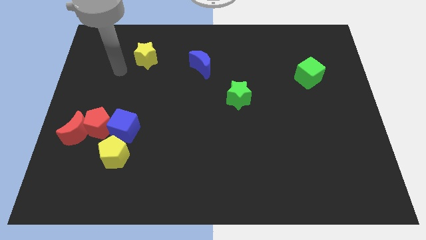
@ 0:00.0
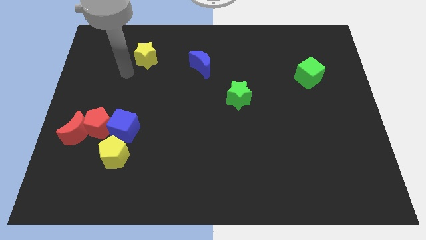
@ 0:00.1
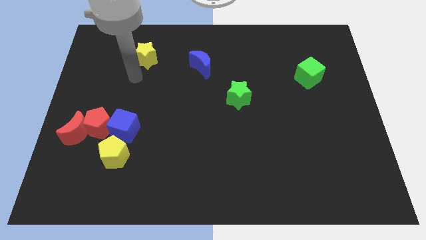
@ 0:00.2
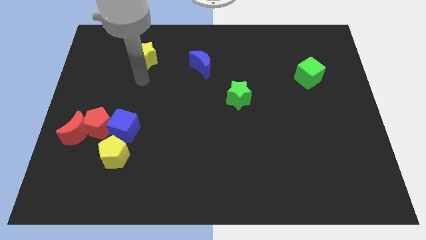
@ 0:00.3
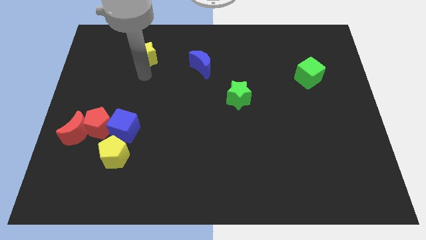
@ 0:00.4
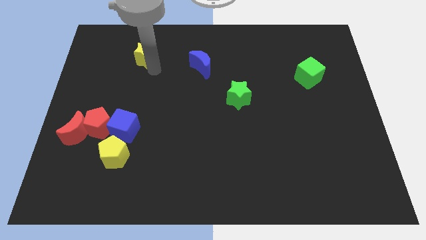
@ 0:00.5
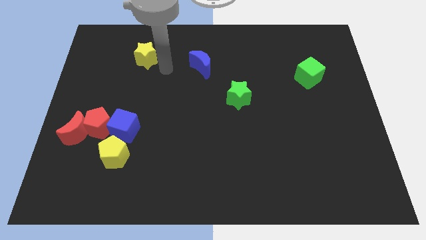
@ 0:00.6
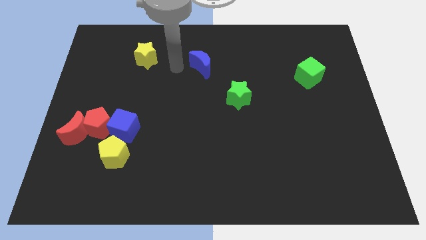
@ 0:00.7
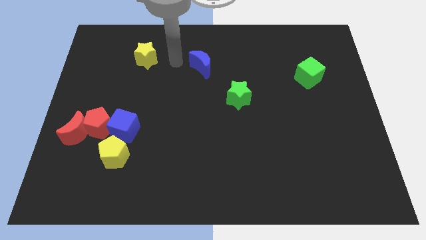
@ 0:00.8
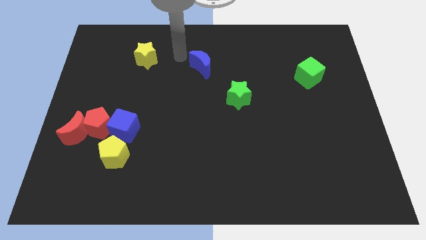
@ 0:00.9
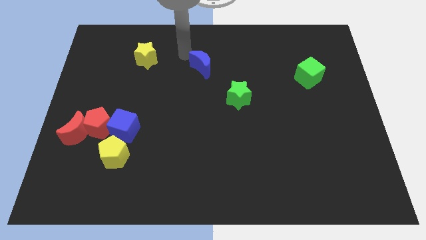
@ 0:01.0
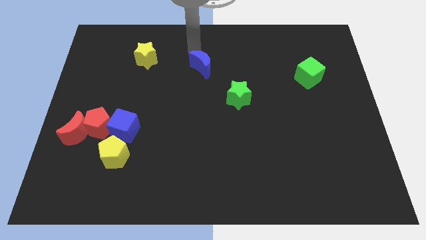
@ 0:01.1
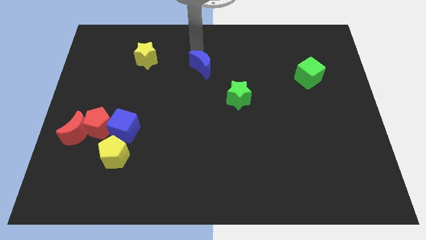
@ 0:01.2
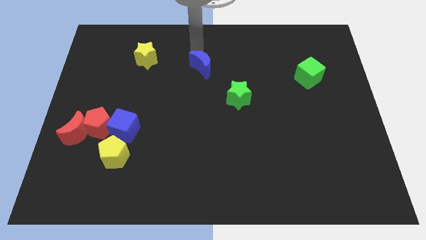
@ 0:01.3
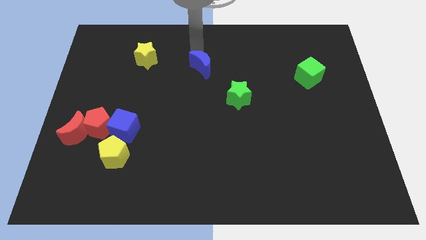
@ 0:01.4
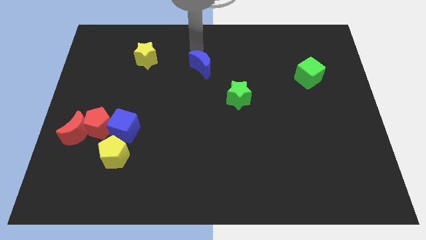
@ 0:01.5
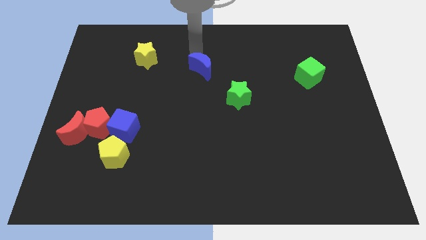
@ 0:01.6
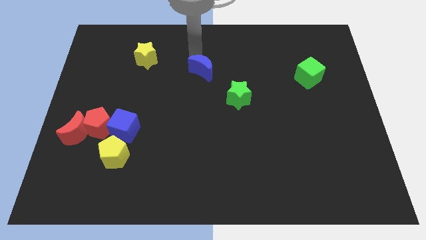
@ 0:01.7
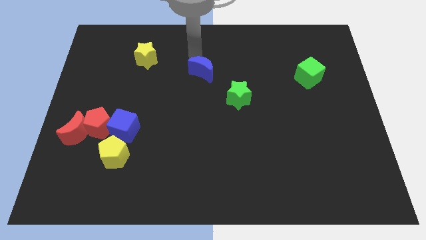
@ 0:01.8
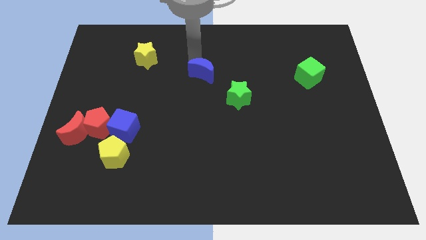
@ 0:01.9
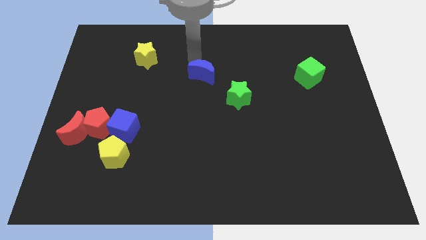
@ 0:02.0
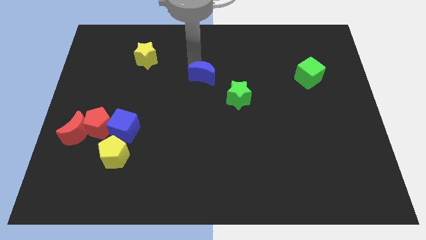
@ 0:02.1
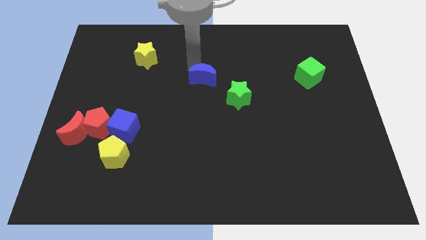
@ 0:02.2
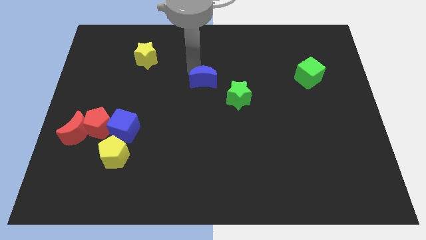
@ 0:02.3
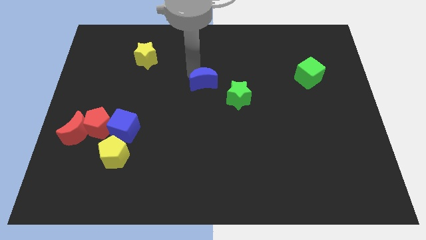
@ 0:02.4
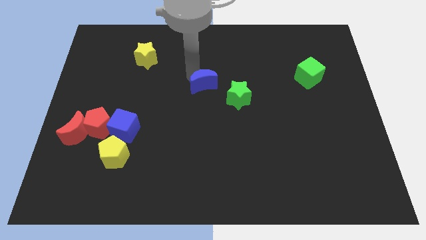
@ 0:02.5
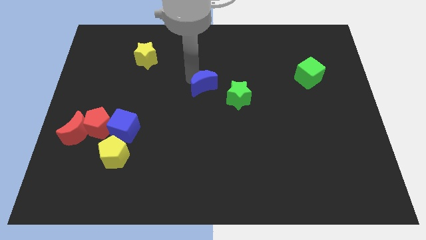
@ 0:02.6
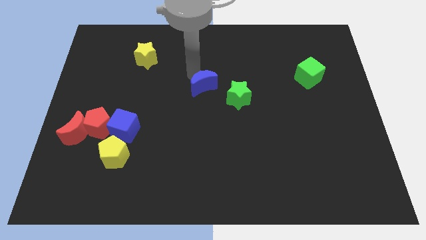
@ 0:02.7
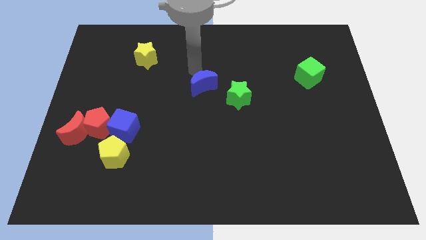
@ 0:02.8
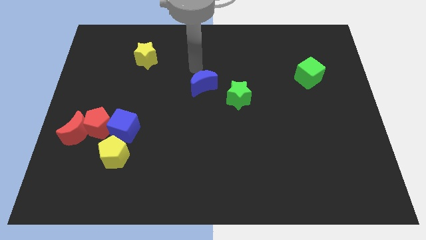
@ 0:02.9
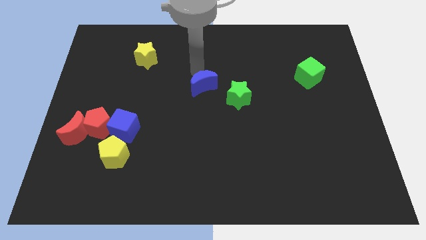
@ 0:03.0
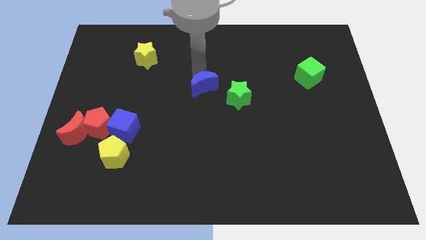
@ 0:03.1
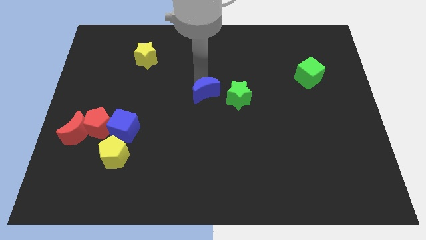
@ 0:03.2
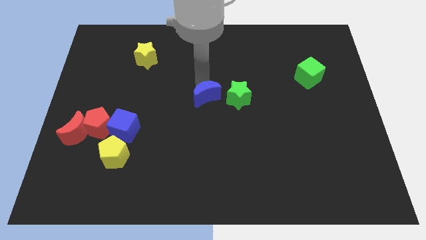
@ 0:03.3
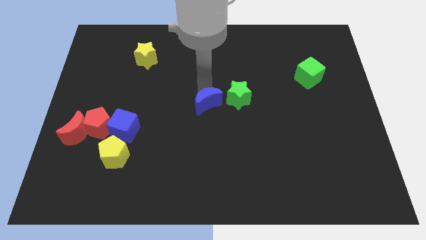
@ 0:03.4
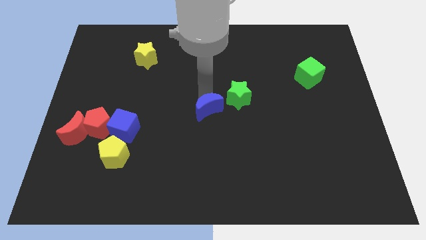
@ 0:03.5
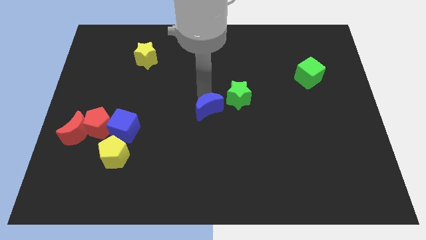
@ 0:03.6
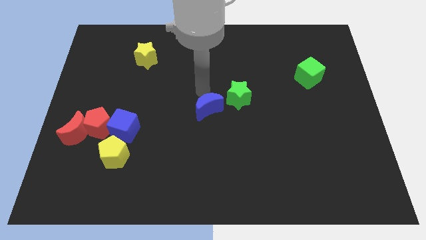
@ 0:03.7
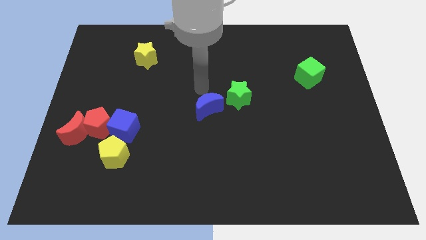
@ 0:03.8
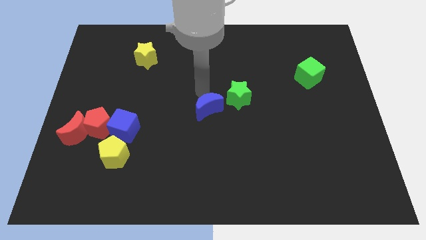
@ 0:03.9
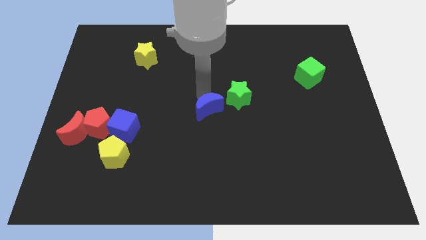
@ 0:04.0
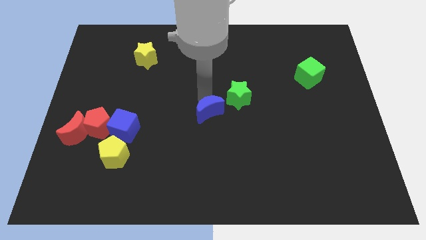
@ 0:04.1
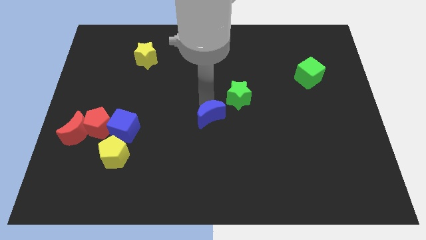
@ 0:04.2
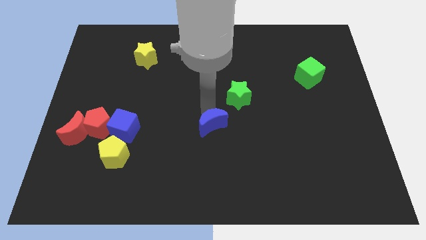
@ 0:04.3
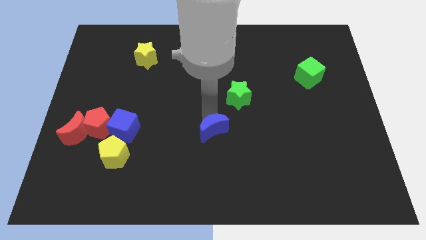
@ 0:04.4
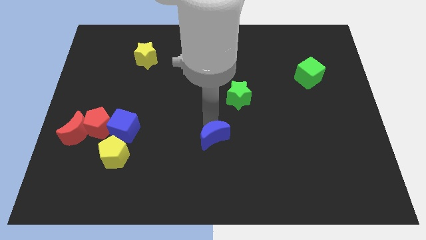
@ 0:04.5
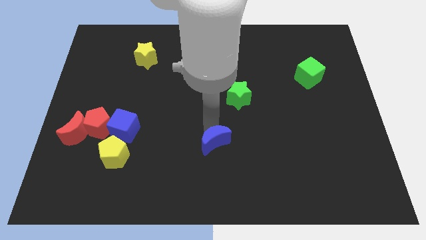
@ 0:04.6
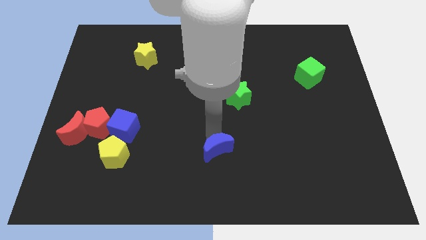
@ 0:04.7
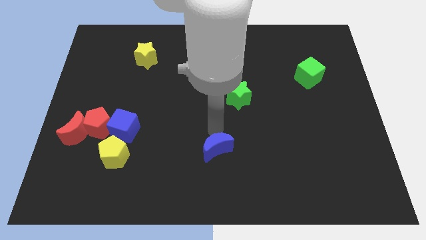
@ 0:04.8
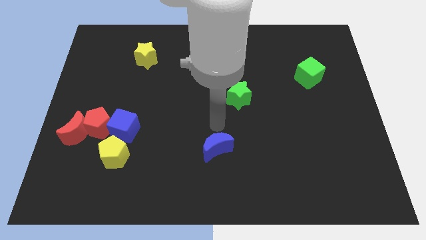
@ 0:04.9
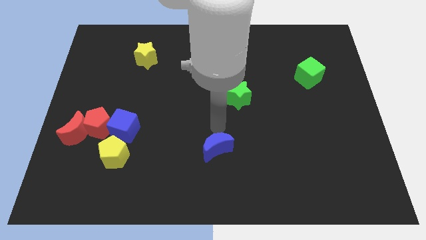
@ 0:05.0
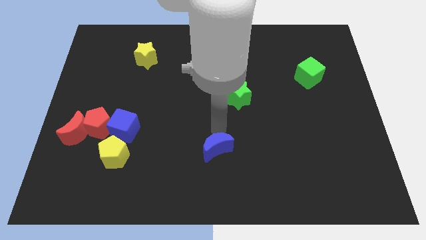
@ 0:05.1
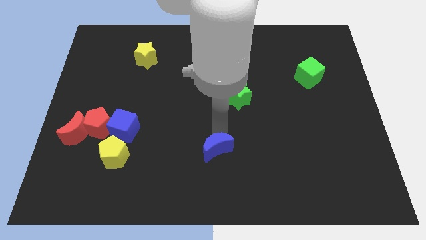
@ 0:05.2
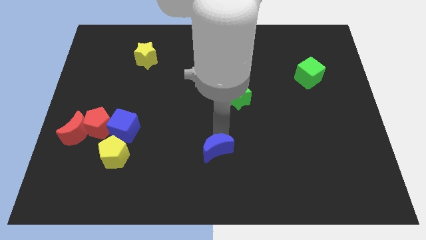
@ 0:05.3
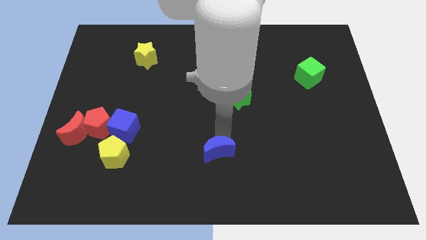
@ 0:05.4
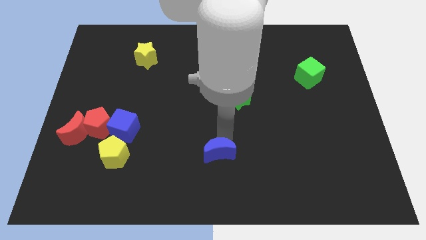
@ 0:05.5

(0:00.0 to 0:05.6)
push the blue moon to the bottom side

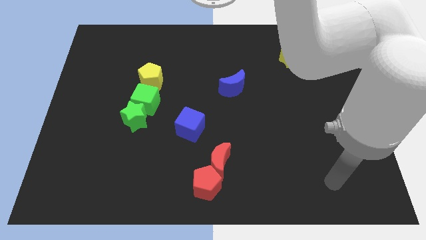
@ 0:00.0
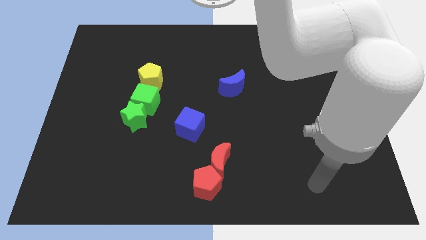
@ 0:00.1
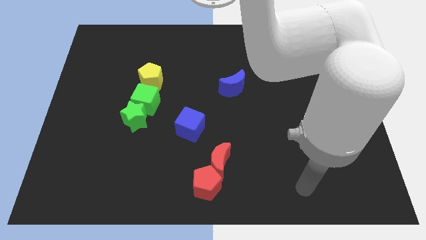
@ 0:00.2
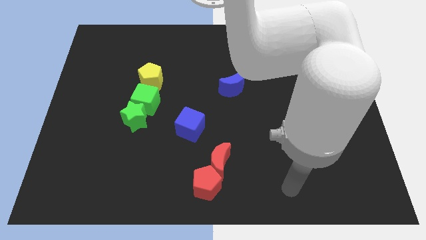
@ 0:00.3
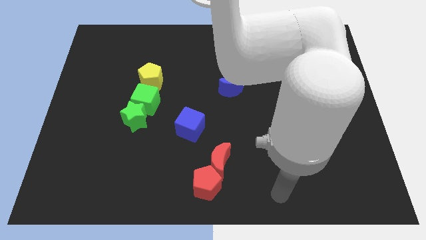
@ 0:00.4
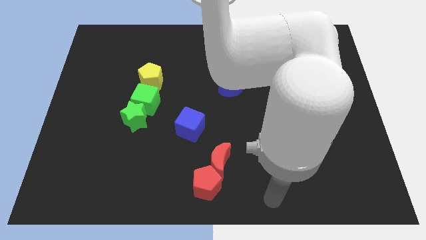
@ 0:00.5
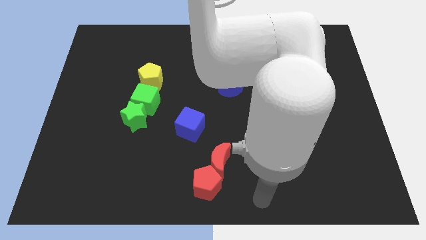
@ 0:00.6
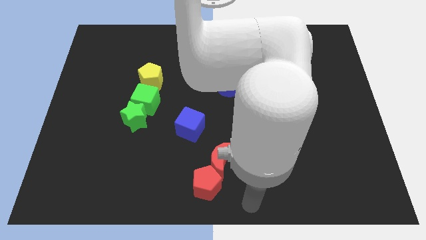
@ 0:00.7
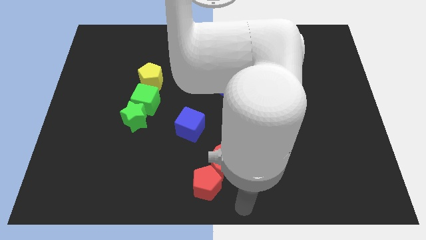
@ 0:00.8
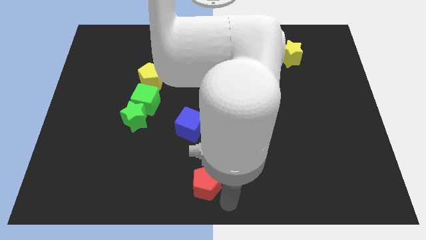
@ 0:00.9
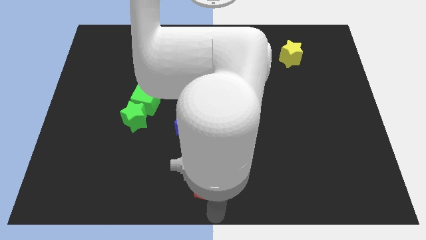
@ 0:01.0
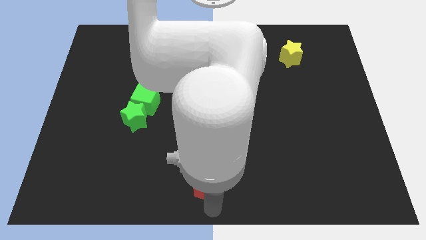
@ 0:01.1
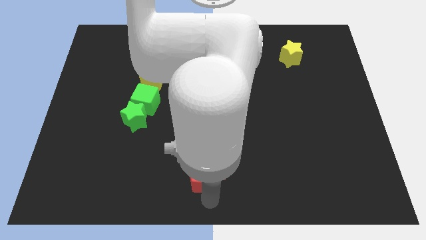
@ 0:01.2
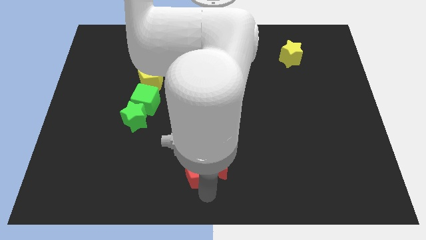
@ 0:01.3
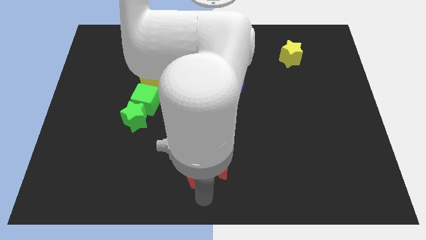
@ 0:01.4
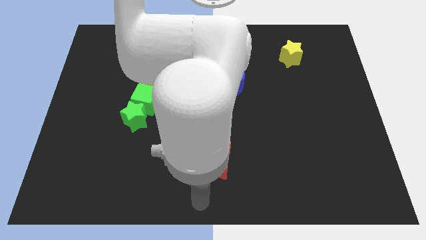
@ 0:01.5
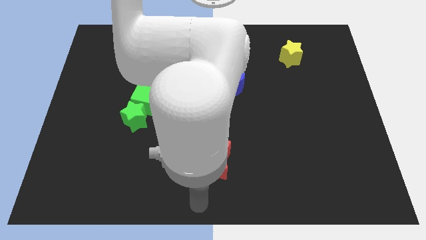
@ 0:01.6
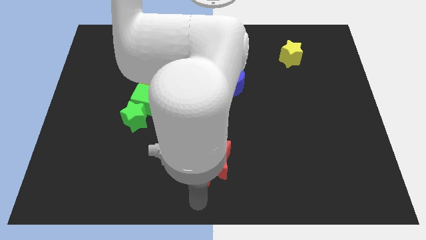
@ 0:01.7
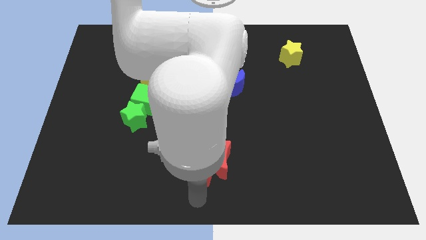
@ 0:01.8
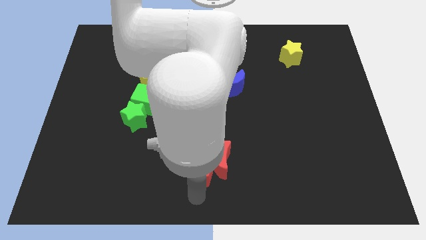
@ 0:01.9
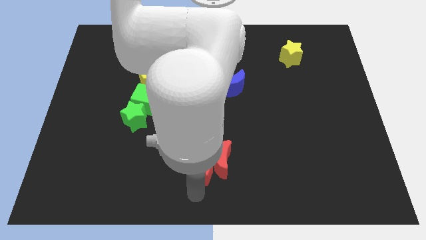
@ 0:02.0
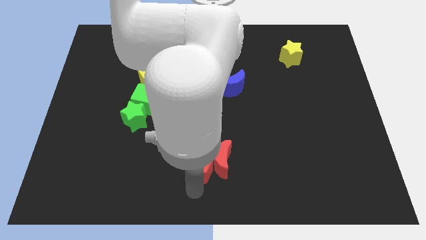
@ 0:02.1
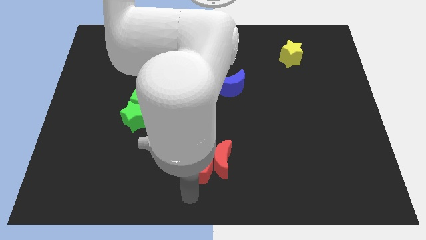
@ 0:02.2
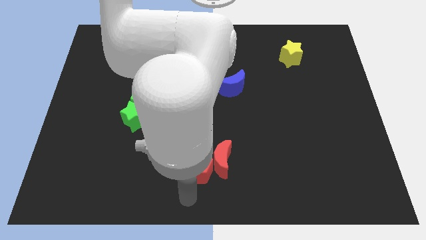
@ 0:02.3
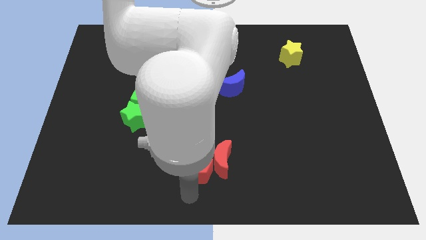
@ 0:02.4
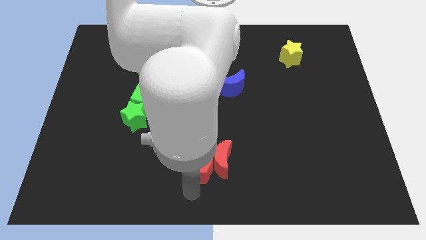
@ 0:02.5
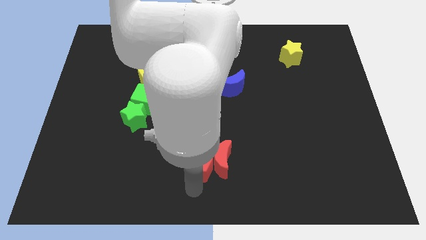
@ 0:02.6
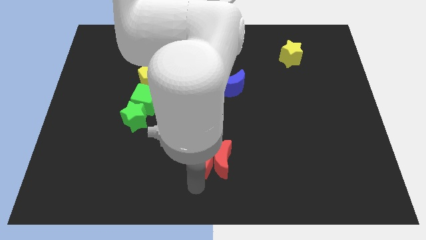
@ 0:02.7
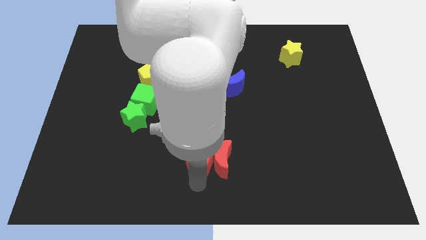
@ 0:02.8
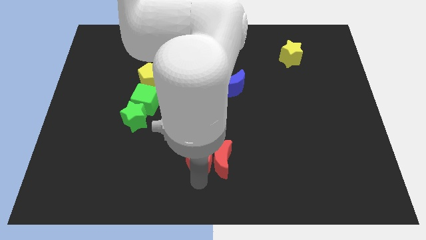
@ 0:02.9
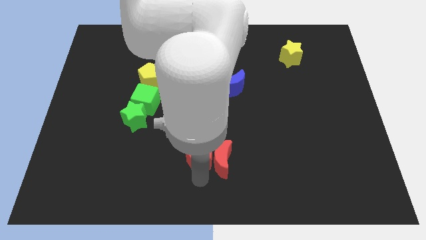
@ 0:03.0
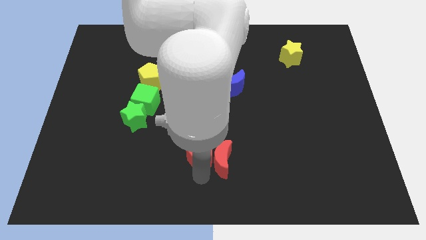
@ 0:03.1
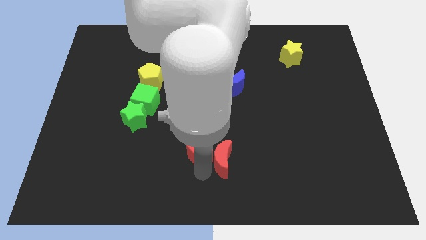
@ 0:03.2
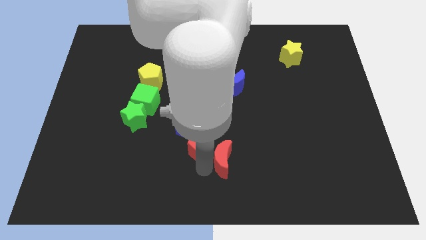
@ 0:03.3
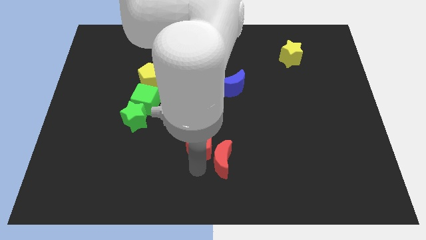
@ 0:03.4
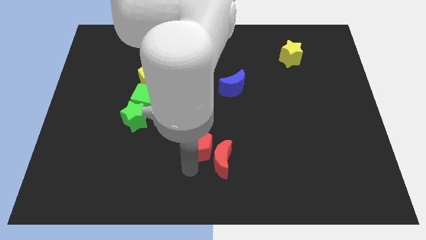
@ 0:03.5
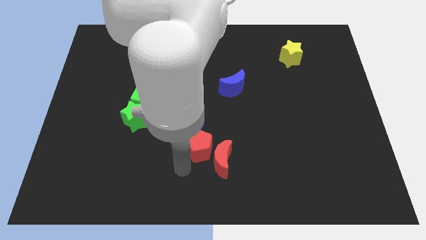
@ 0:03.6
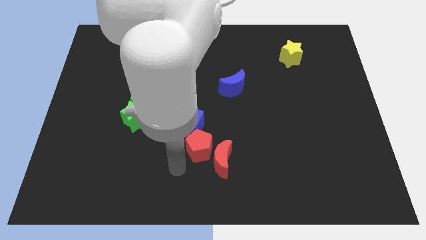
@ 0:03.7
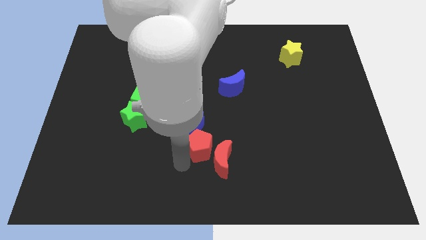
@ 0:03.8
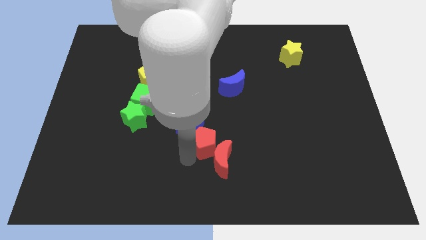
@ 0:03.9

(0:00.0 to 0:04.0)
push the red pentagon to the center
